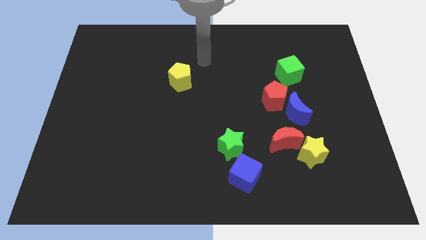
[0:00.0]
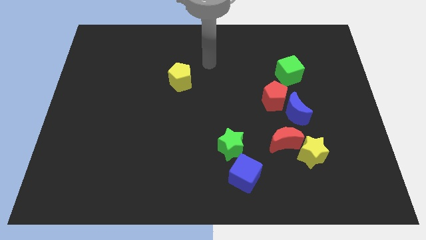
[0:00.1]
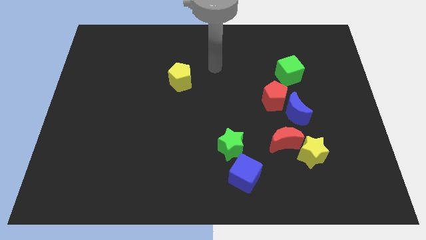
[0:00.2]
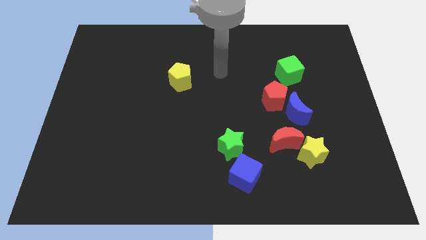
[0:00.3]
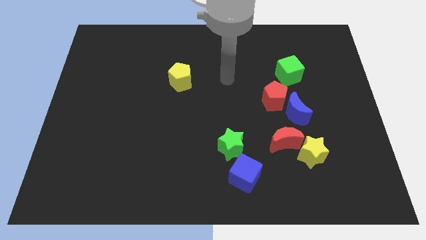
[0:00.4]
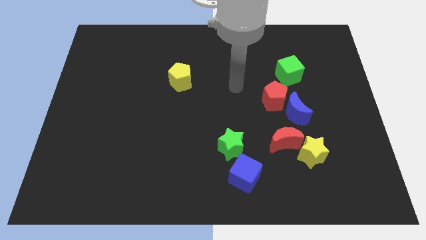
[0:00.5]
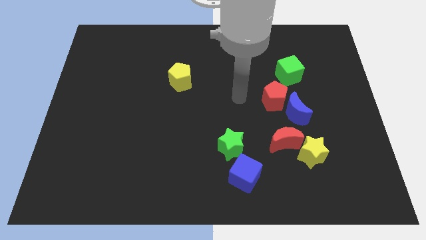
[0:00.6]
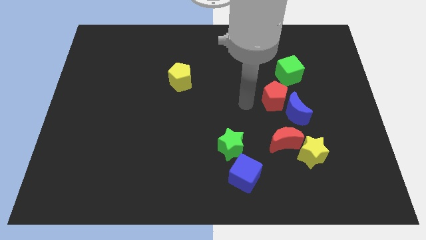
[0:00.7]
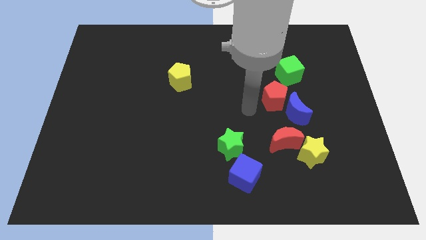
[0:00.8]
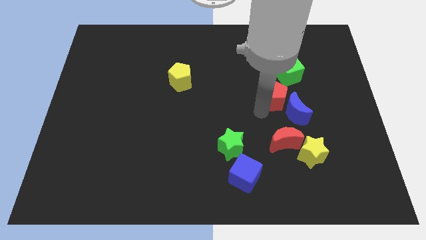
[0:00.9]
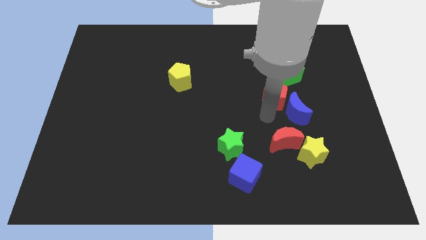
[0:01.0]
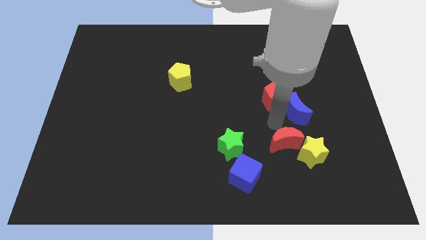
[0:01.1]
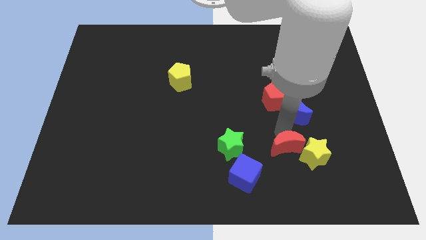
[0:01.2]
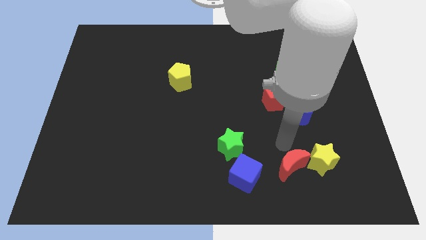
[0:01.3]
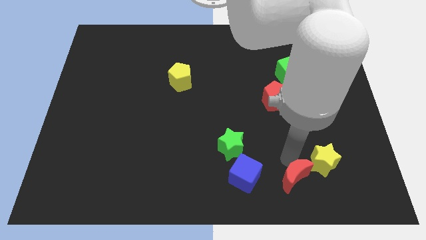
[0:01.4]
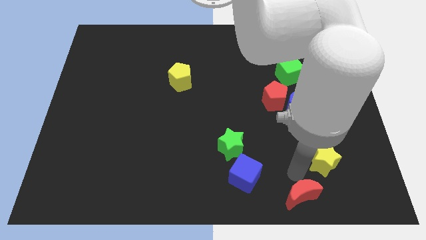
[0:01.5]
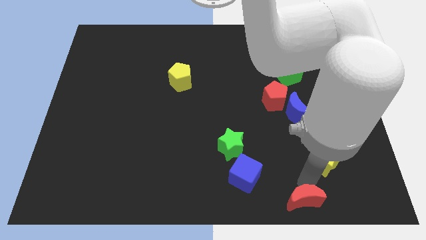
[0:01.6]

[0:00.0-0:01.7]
separate the yellow star from the red moon

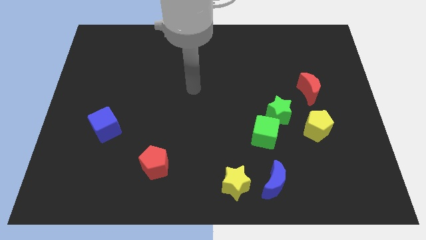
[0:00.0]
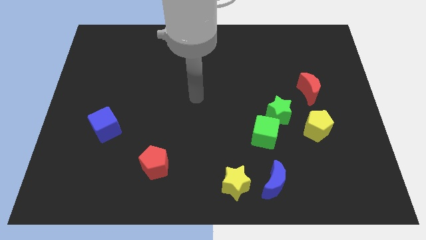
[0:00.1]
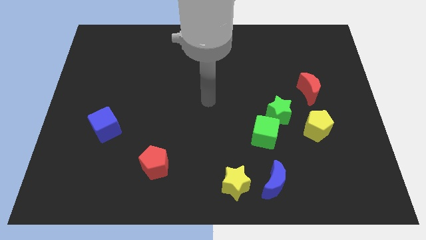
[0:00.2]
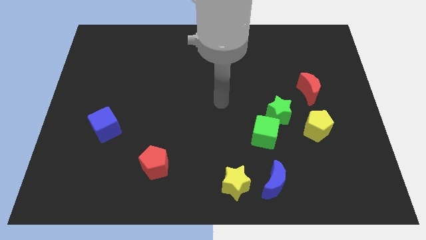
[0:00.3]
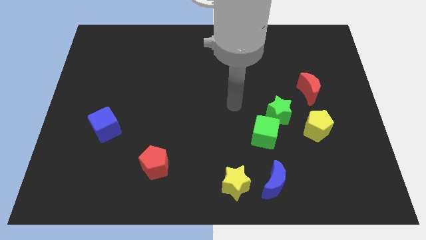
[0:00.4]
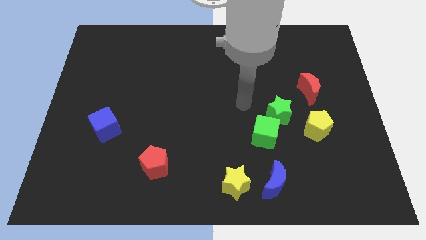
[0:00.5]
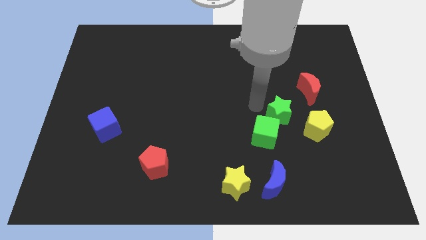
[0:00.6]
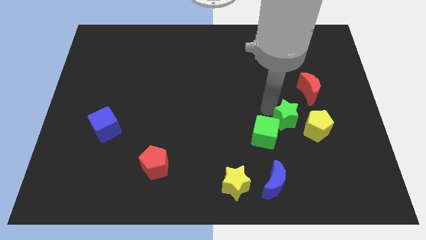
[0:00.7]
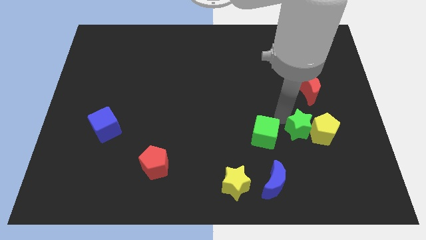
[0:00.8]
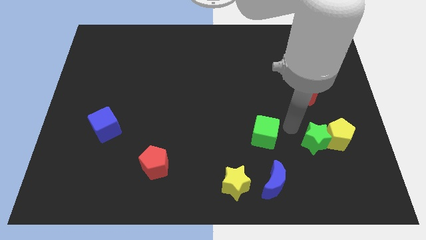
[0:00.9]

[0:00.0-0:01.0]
pull the green cube apart from the green star

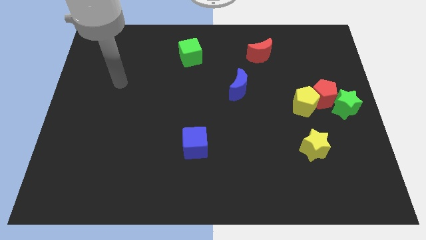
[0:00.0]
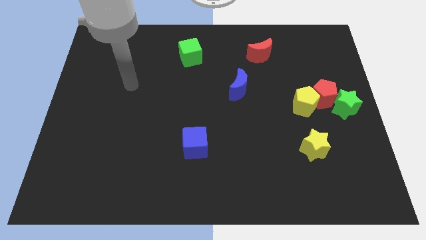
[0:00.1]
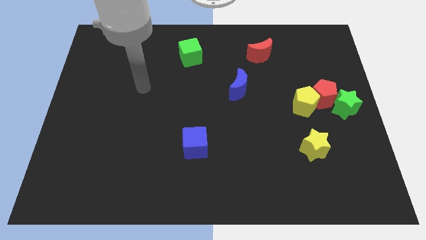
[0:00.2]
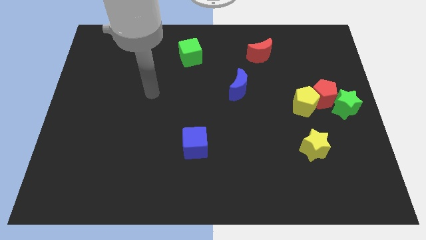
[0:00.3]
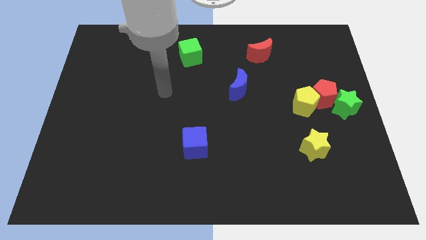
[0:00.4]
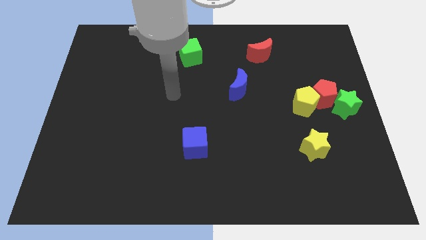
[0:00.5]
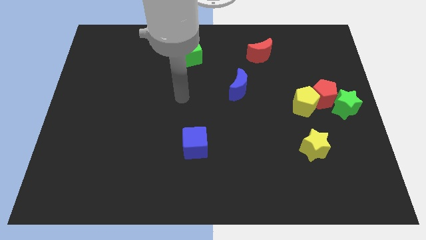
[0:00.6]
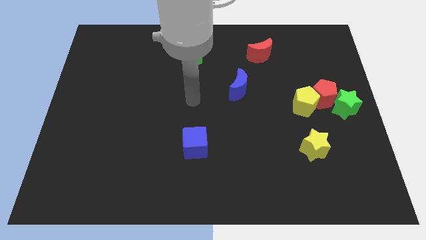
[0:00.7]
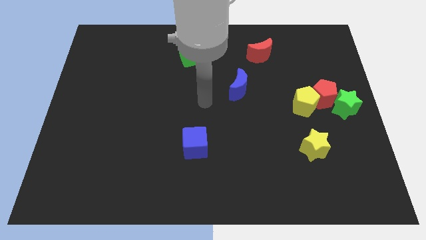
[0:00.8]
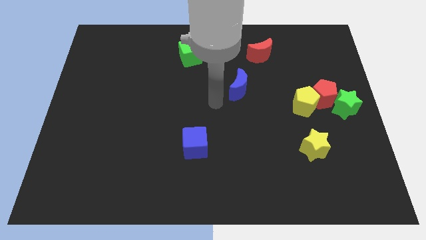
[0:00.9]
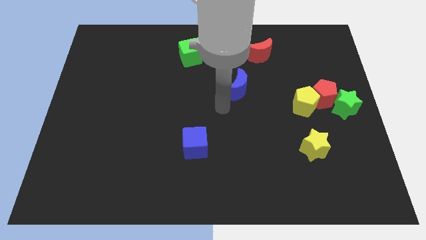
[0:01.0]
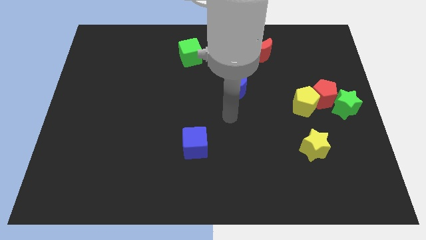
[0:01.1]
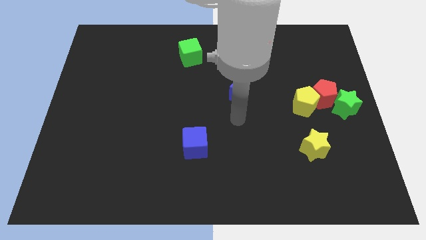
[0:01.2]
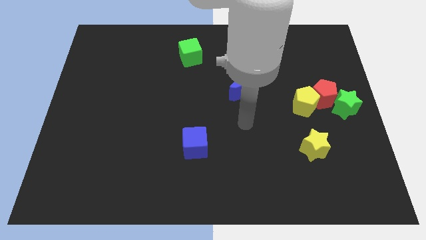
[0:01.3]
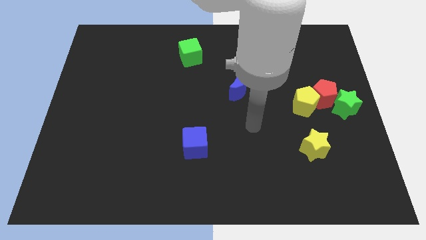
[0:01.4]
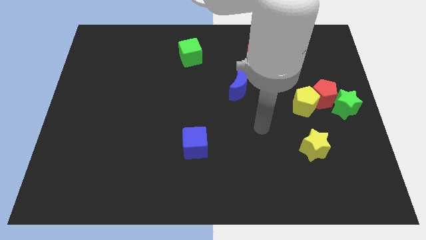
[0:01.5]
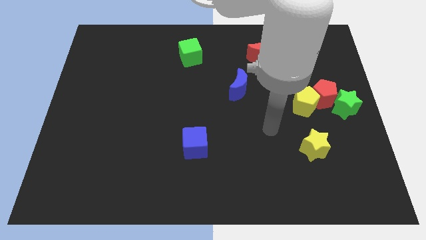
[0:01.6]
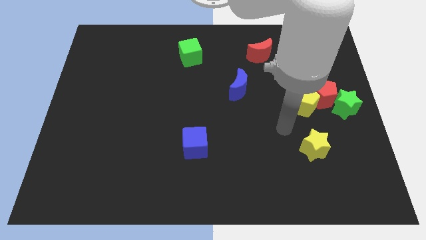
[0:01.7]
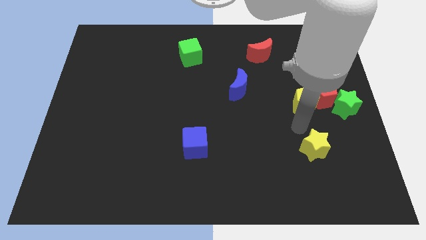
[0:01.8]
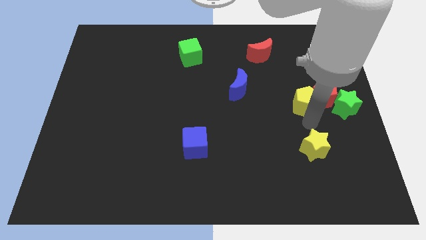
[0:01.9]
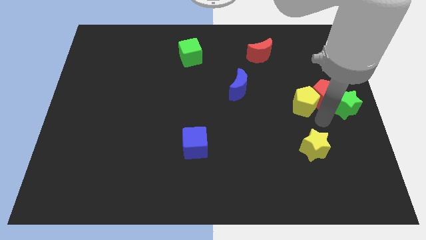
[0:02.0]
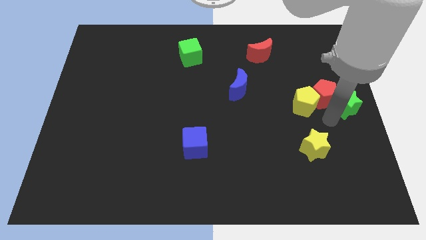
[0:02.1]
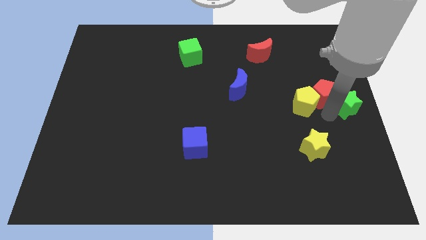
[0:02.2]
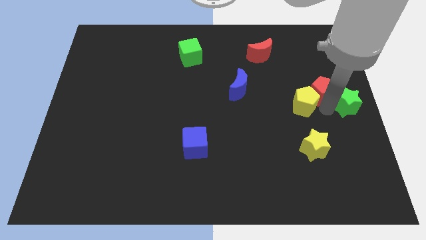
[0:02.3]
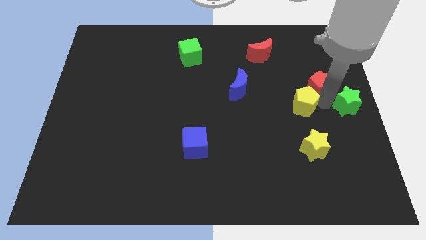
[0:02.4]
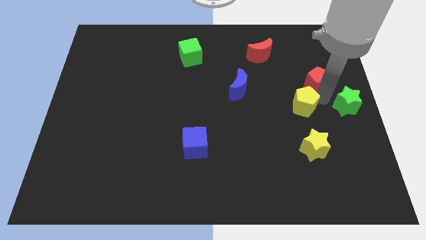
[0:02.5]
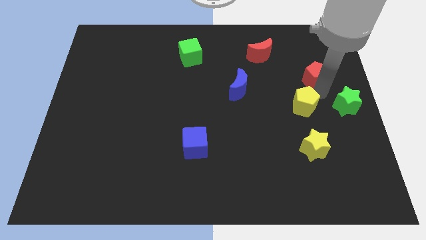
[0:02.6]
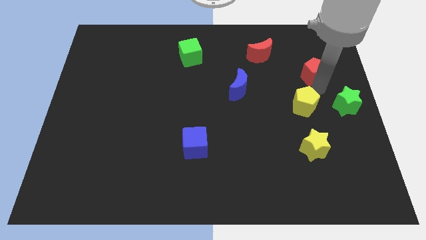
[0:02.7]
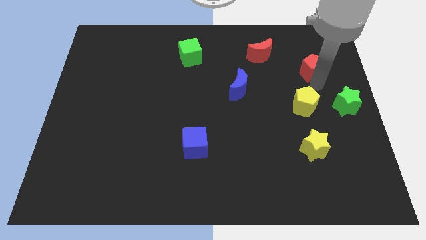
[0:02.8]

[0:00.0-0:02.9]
move the red pentagon away from the yellow pentagon and green star

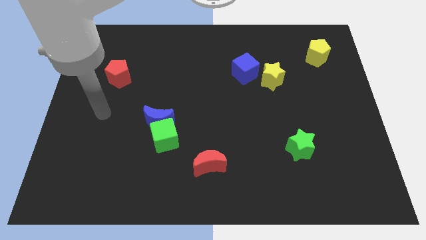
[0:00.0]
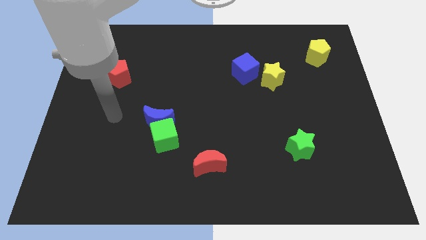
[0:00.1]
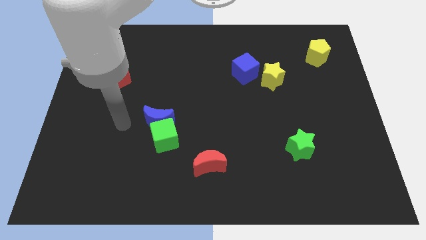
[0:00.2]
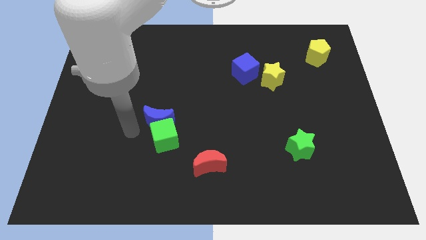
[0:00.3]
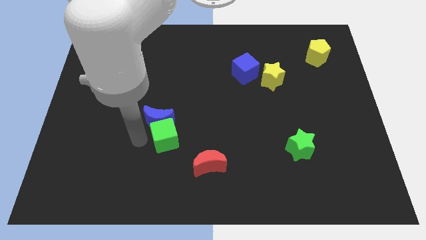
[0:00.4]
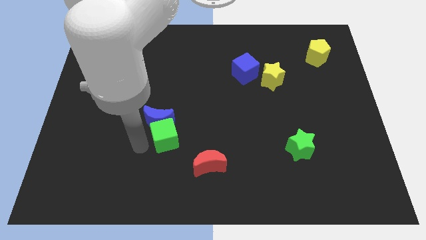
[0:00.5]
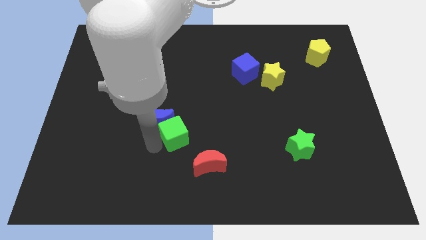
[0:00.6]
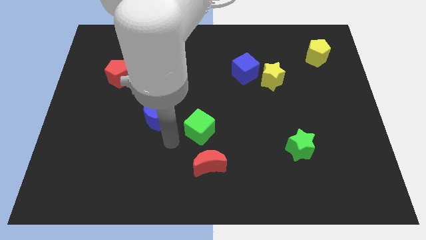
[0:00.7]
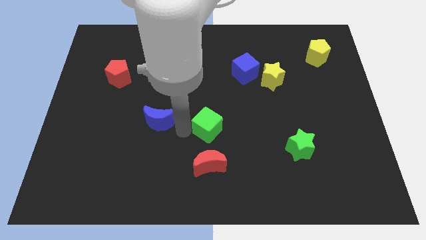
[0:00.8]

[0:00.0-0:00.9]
move the blue moon away from the green cube

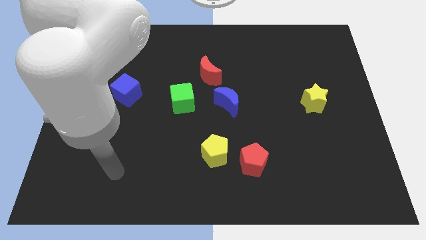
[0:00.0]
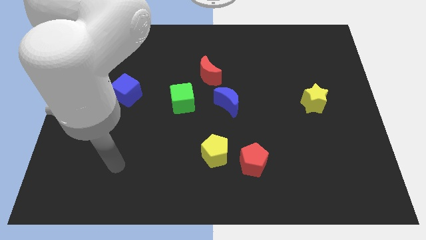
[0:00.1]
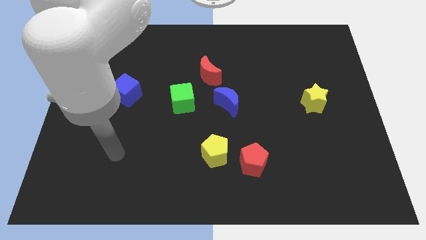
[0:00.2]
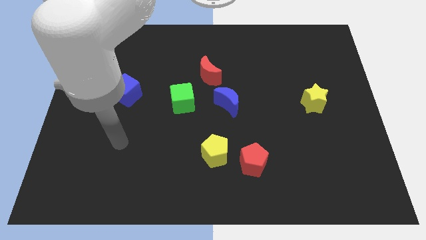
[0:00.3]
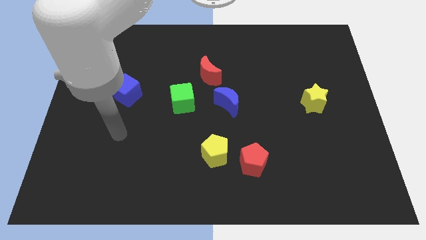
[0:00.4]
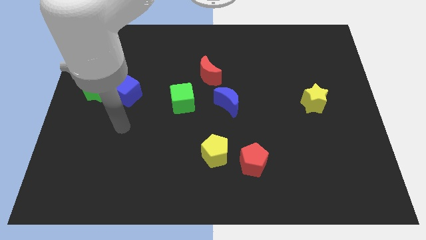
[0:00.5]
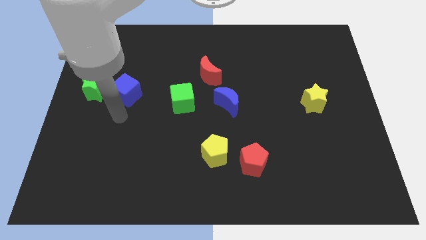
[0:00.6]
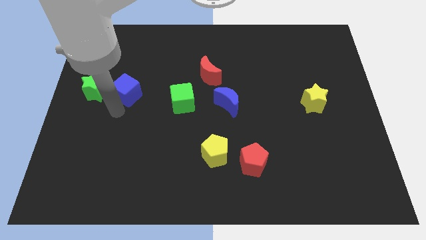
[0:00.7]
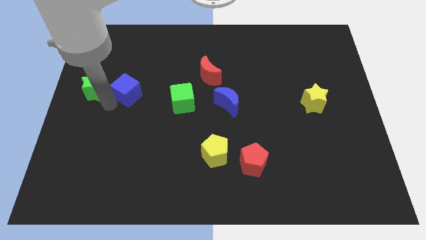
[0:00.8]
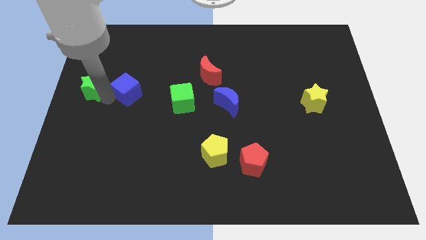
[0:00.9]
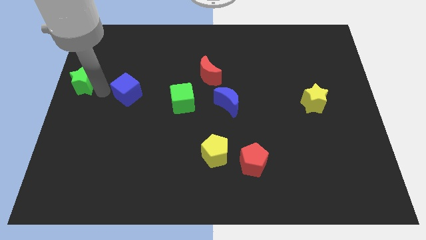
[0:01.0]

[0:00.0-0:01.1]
separate the blue cube from the green star

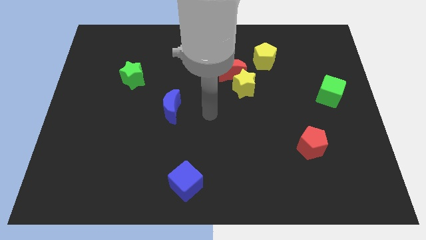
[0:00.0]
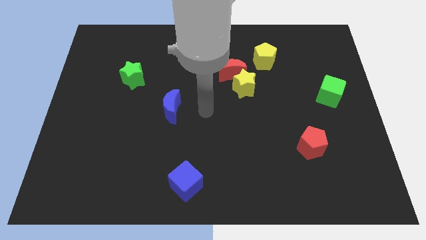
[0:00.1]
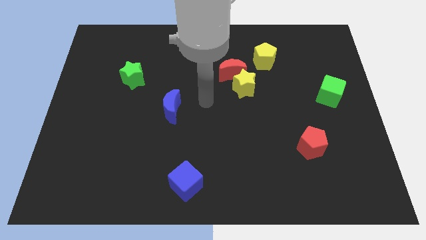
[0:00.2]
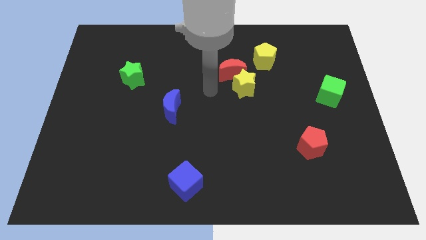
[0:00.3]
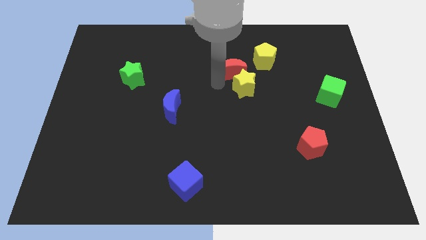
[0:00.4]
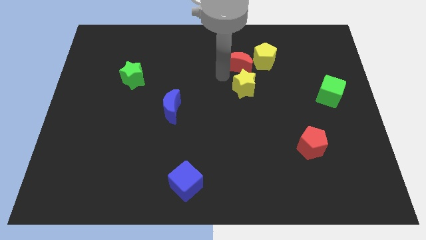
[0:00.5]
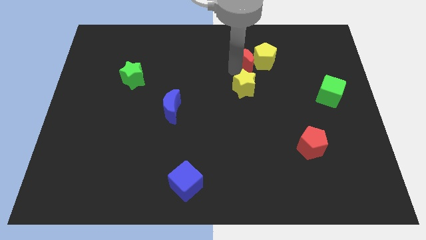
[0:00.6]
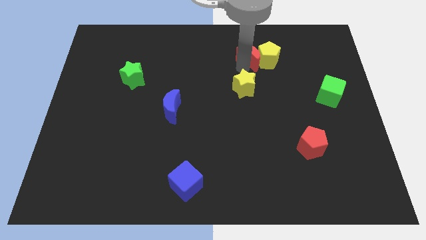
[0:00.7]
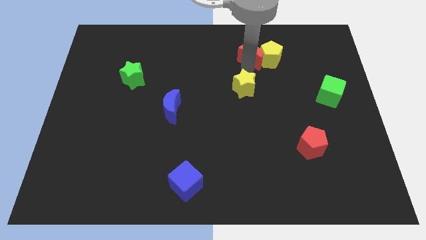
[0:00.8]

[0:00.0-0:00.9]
pull the yellow star apart from the red moon

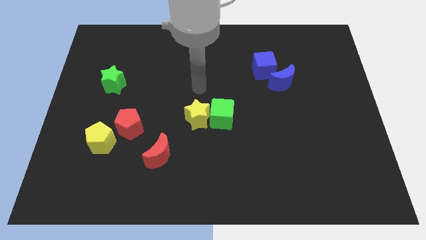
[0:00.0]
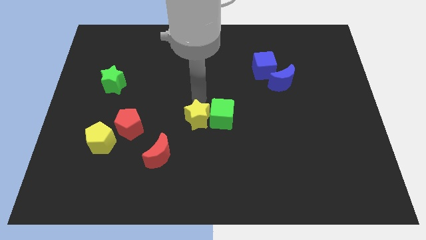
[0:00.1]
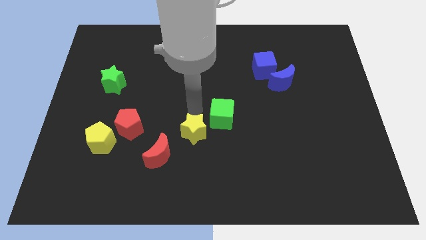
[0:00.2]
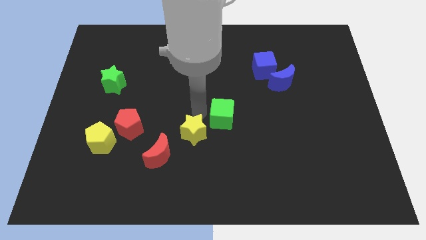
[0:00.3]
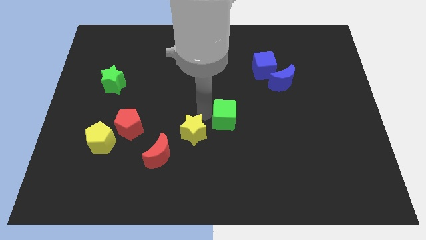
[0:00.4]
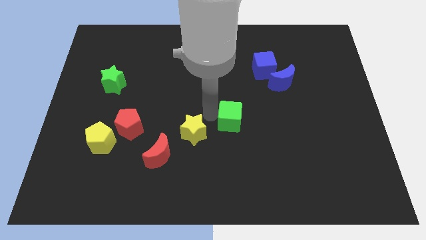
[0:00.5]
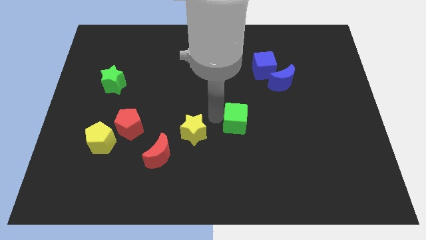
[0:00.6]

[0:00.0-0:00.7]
move the green cube away from the yellow star
